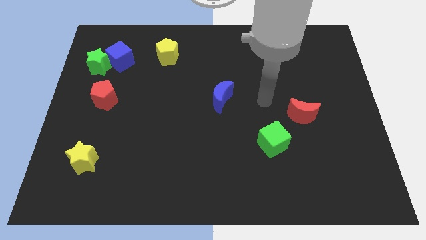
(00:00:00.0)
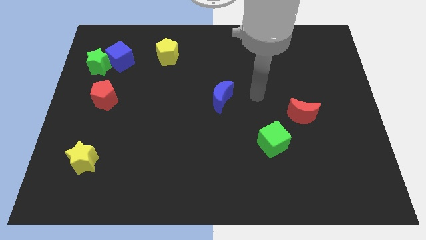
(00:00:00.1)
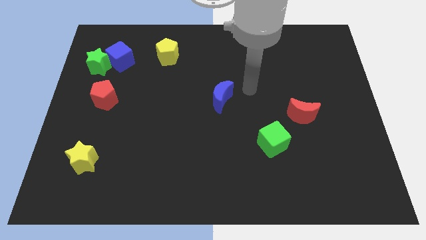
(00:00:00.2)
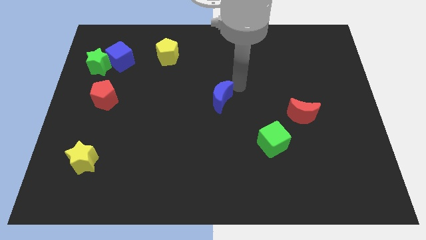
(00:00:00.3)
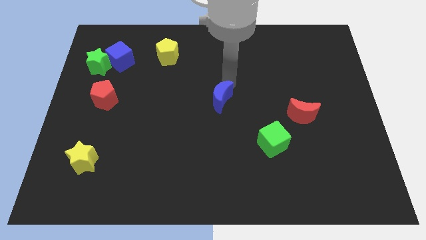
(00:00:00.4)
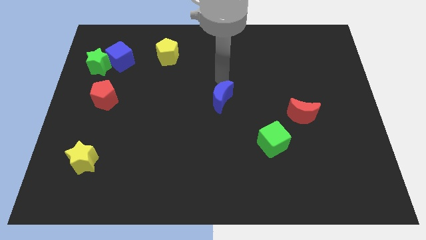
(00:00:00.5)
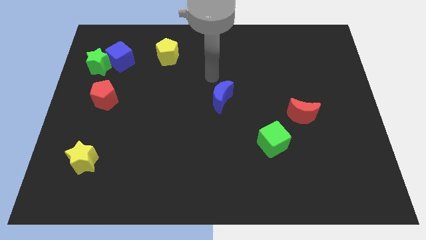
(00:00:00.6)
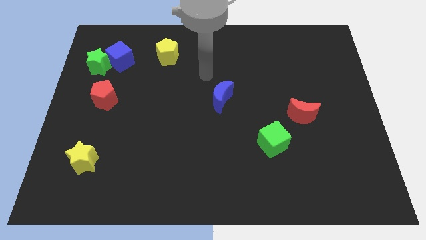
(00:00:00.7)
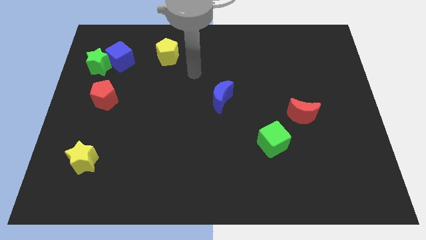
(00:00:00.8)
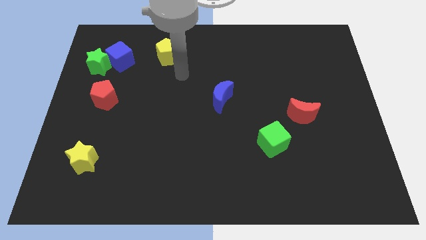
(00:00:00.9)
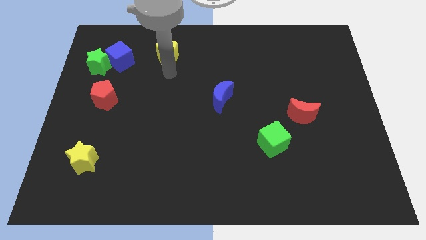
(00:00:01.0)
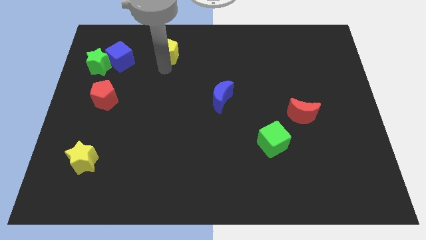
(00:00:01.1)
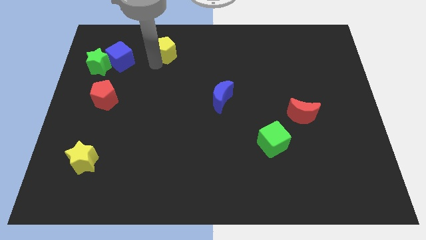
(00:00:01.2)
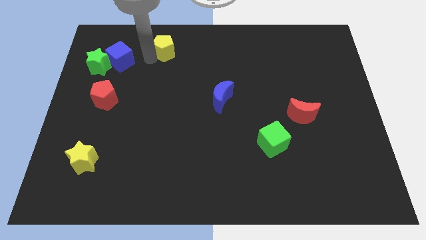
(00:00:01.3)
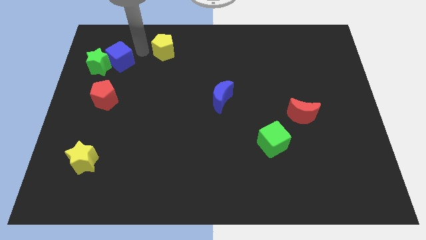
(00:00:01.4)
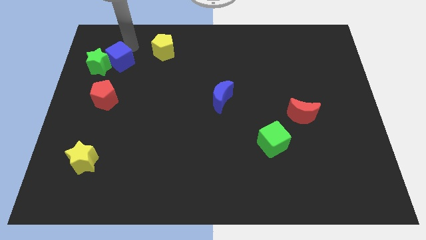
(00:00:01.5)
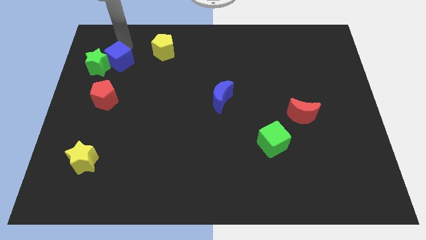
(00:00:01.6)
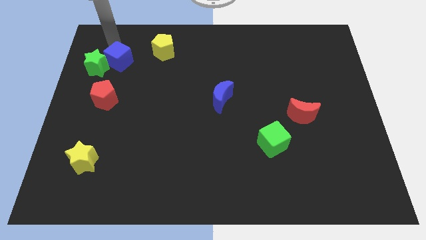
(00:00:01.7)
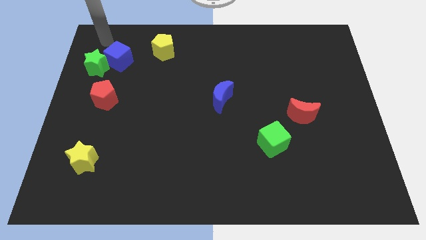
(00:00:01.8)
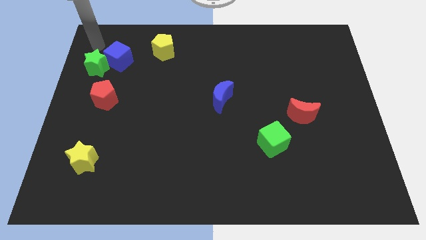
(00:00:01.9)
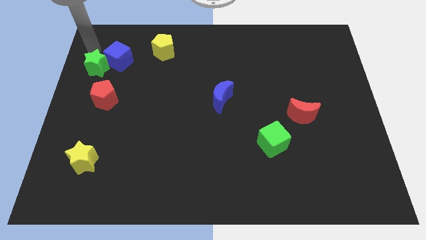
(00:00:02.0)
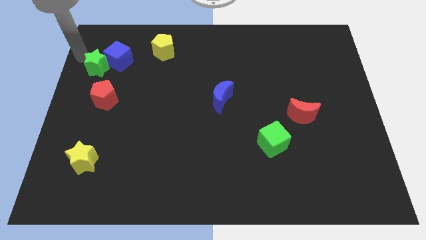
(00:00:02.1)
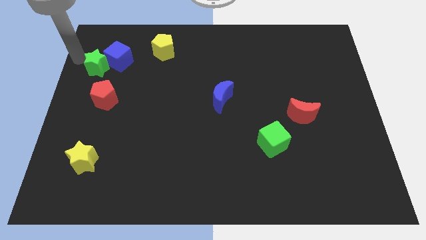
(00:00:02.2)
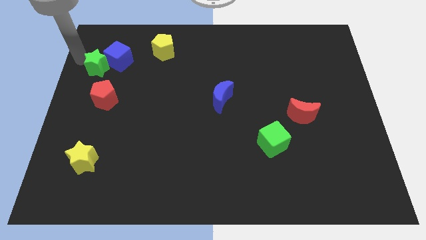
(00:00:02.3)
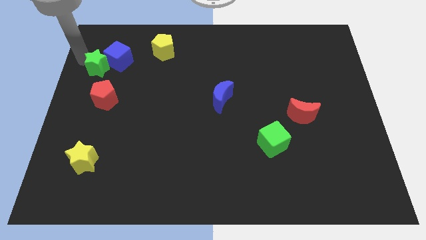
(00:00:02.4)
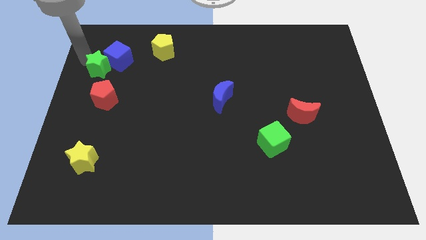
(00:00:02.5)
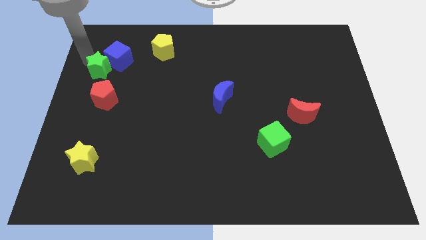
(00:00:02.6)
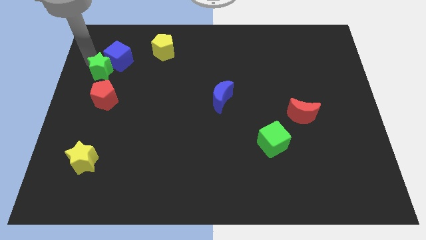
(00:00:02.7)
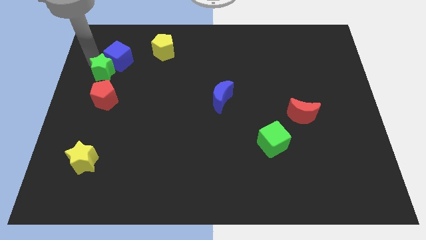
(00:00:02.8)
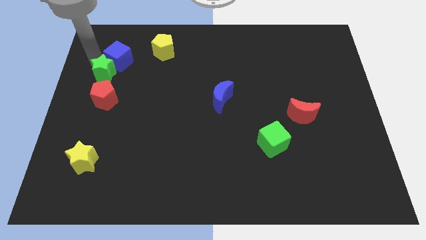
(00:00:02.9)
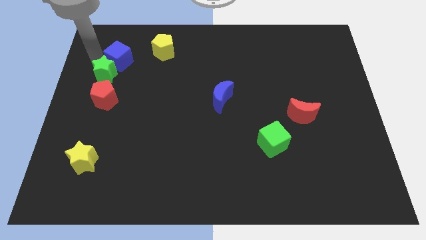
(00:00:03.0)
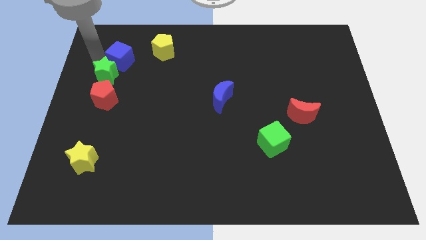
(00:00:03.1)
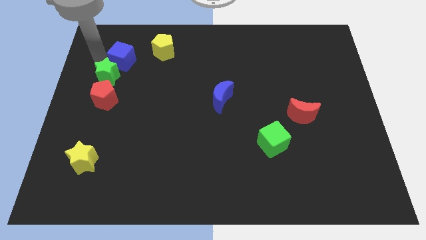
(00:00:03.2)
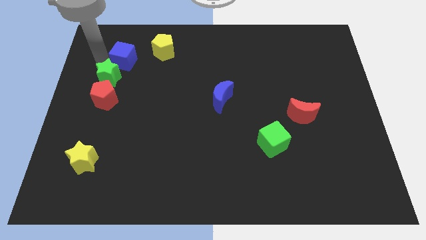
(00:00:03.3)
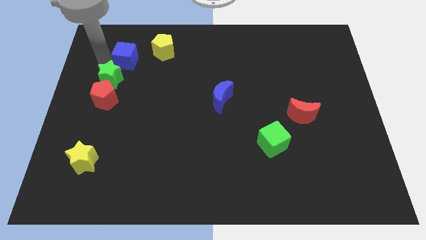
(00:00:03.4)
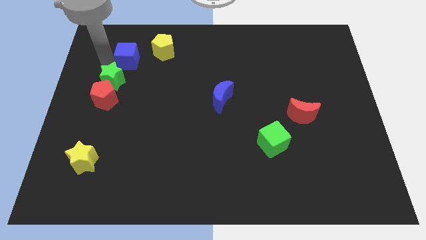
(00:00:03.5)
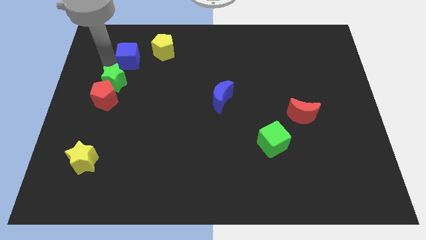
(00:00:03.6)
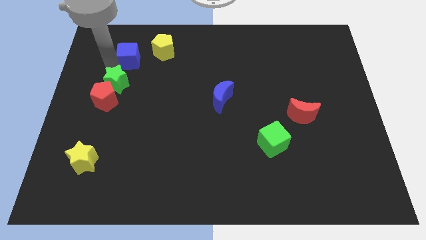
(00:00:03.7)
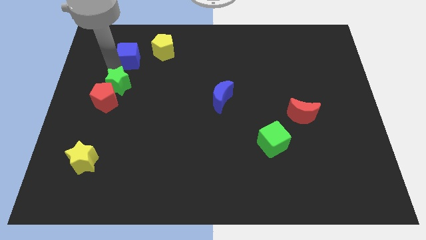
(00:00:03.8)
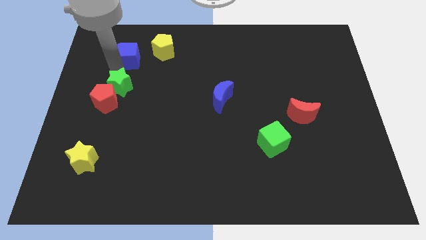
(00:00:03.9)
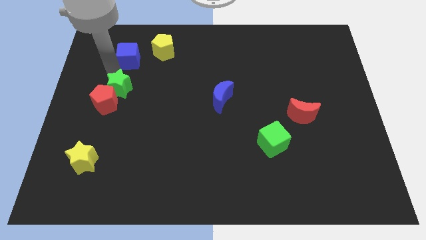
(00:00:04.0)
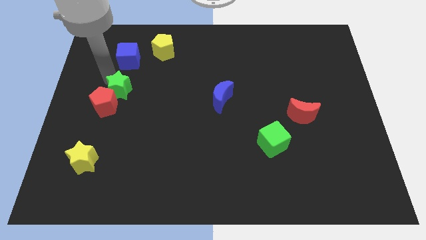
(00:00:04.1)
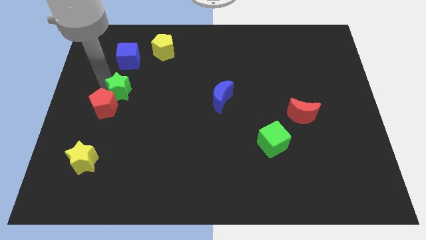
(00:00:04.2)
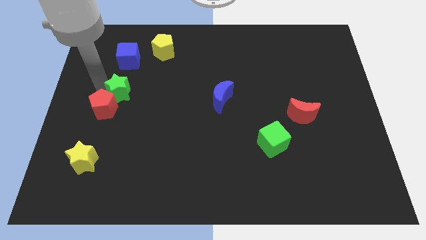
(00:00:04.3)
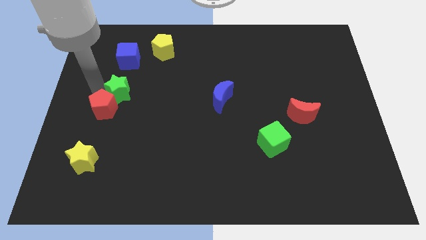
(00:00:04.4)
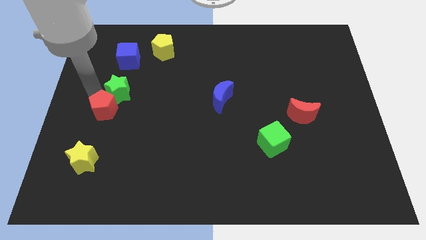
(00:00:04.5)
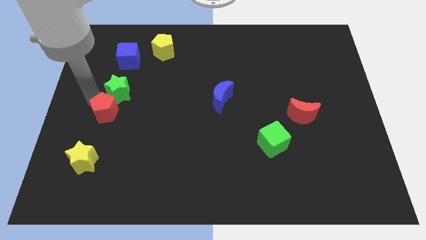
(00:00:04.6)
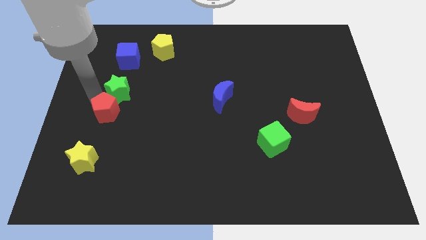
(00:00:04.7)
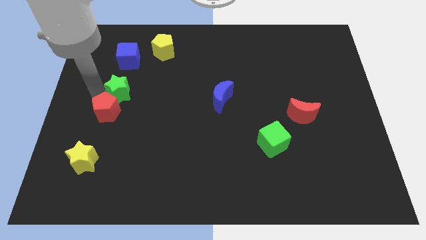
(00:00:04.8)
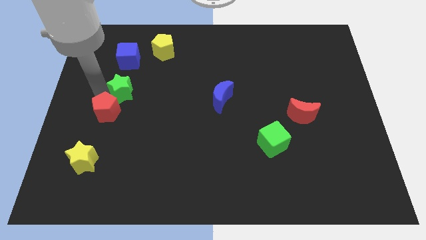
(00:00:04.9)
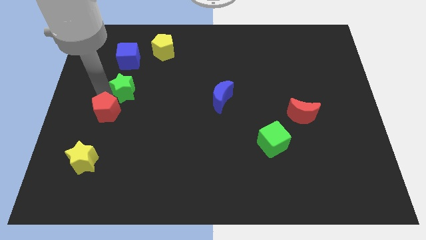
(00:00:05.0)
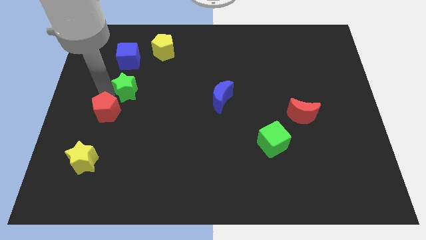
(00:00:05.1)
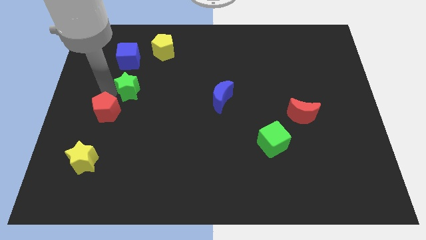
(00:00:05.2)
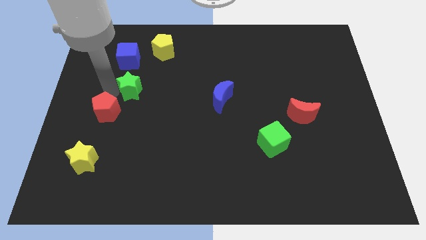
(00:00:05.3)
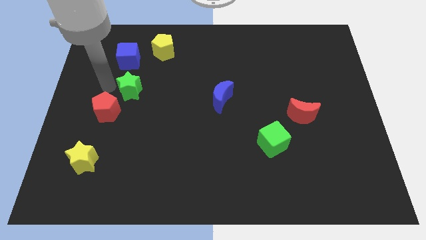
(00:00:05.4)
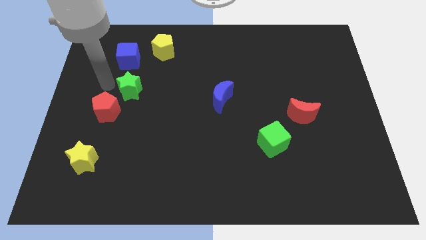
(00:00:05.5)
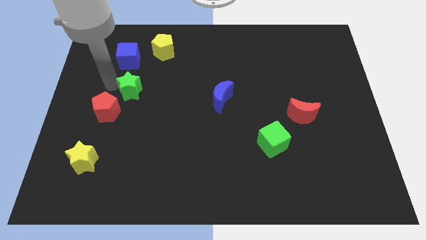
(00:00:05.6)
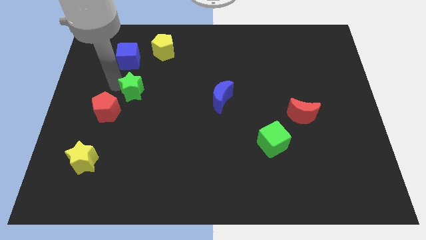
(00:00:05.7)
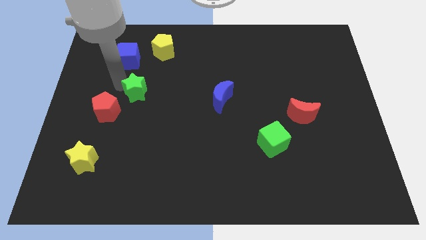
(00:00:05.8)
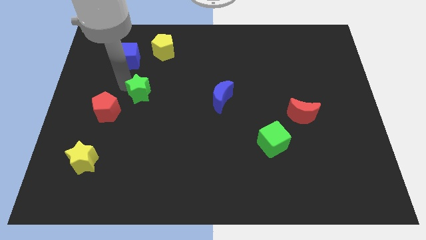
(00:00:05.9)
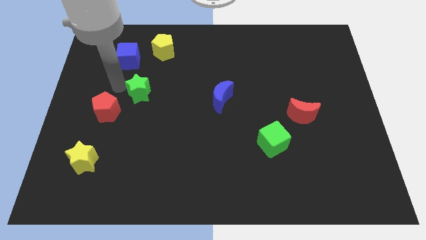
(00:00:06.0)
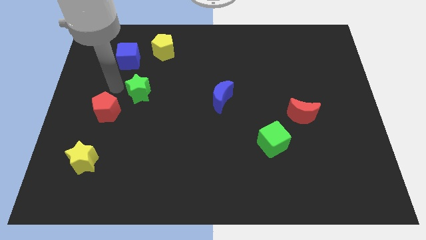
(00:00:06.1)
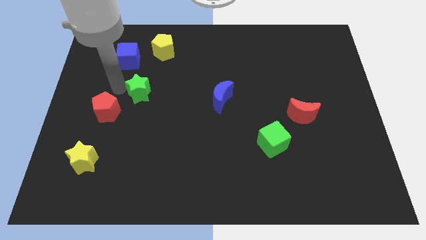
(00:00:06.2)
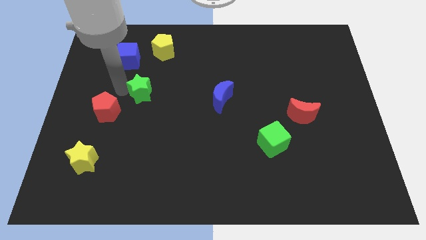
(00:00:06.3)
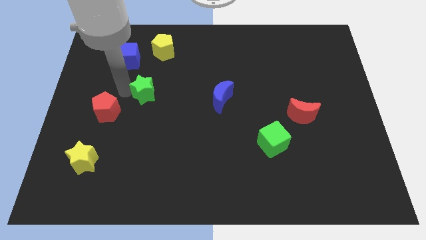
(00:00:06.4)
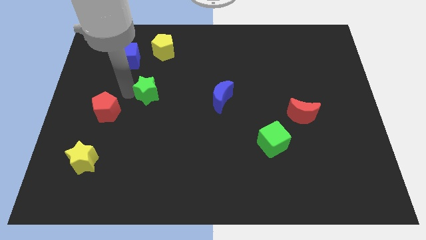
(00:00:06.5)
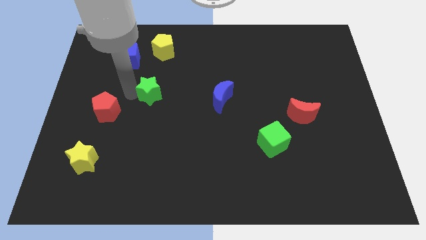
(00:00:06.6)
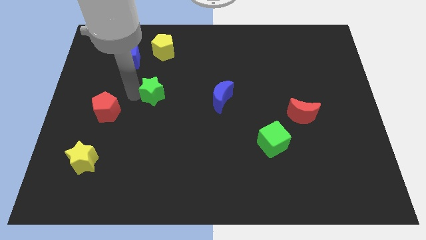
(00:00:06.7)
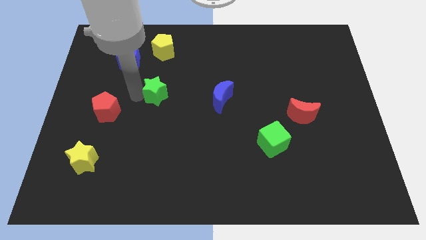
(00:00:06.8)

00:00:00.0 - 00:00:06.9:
put the green star to the left side of the blue moon
